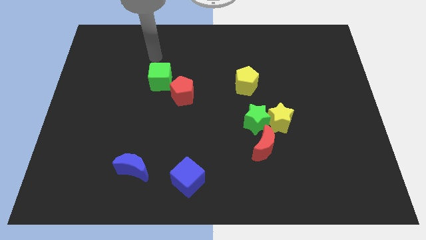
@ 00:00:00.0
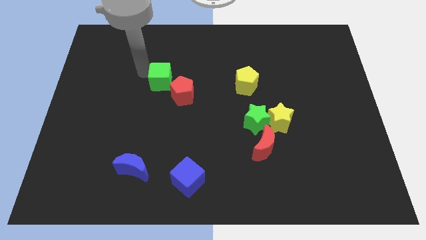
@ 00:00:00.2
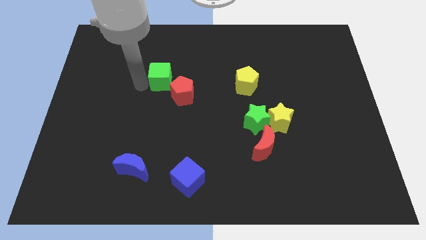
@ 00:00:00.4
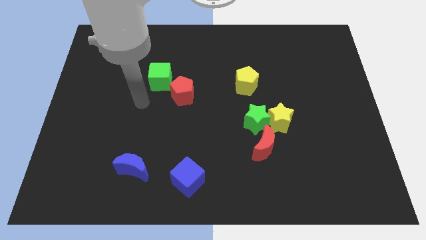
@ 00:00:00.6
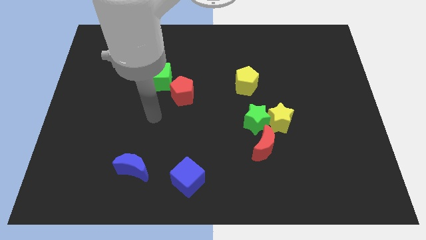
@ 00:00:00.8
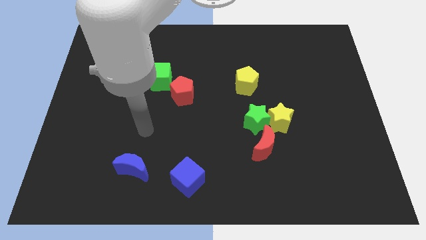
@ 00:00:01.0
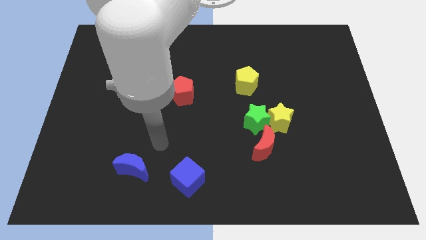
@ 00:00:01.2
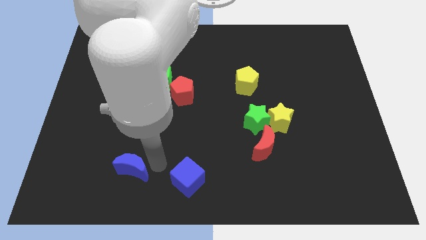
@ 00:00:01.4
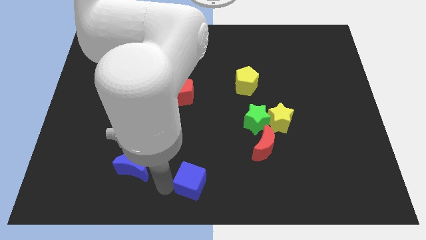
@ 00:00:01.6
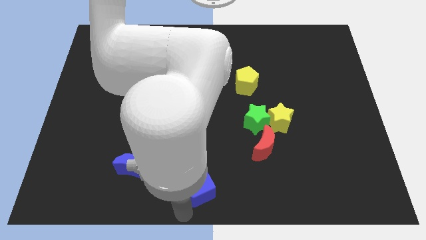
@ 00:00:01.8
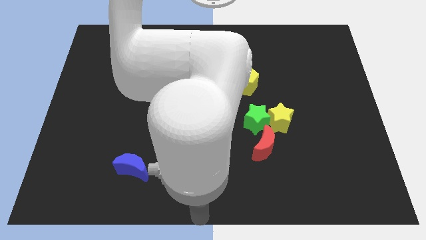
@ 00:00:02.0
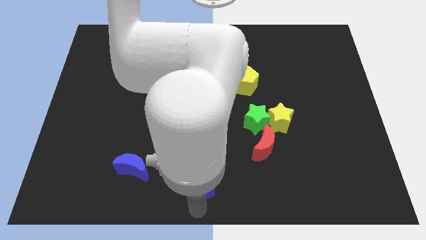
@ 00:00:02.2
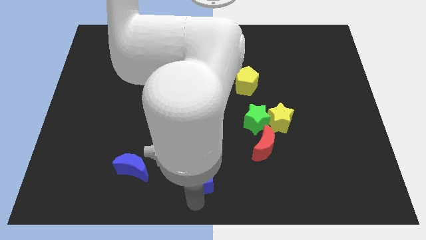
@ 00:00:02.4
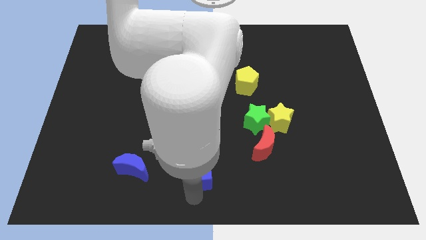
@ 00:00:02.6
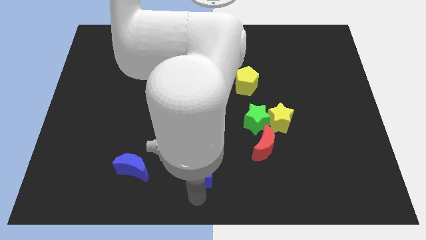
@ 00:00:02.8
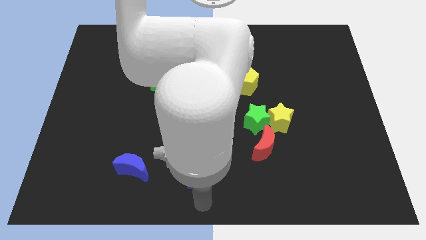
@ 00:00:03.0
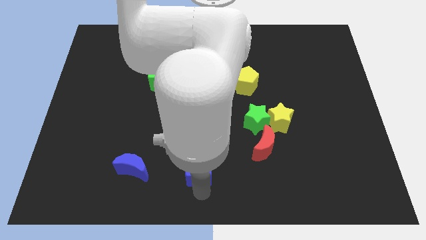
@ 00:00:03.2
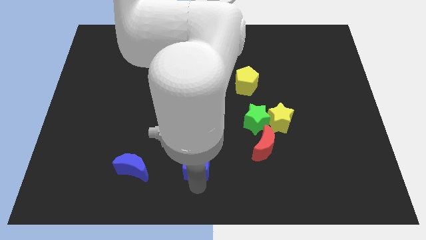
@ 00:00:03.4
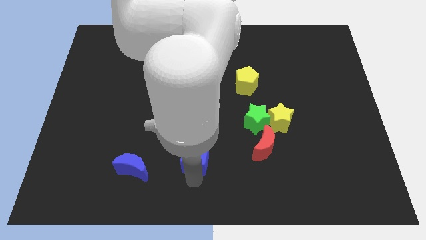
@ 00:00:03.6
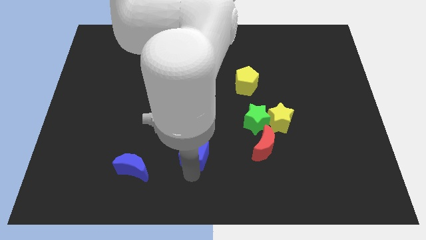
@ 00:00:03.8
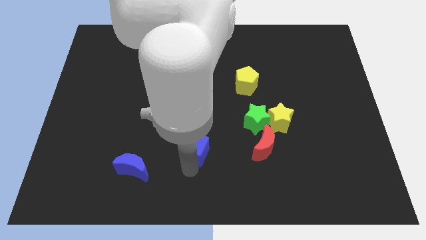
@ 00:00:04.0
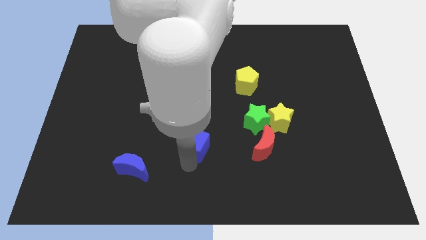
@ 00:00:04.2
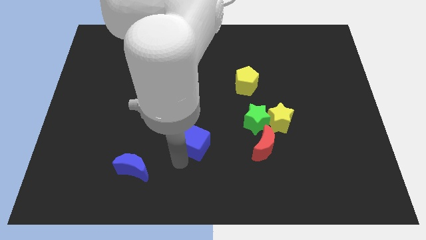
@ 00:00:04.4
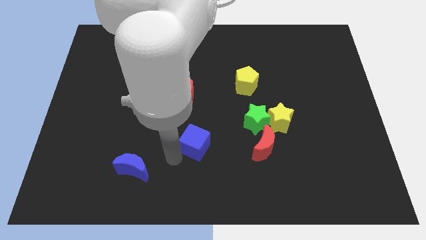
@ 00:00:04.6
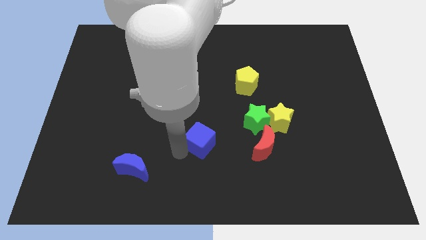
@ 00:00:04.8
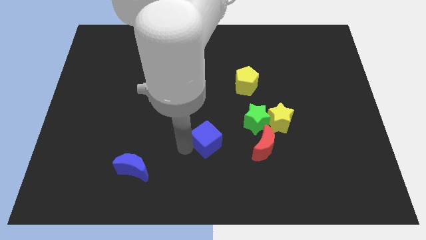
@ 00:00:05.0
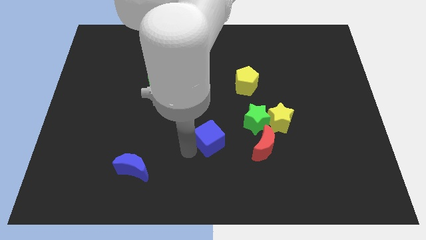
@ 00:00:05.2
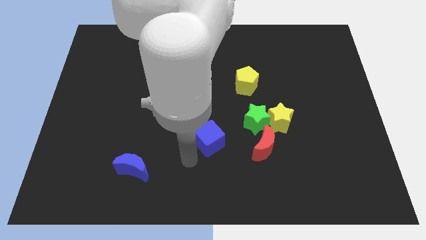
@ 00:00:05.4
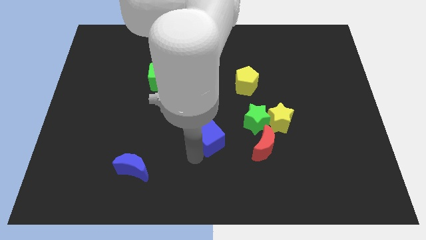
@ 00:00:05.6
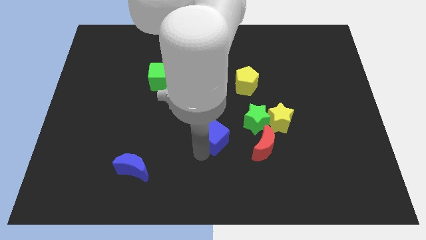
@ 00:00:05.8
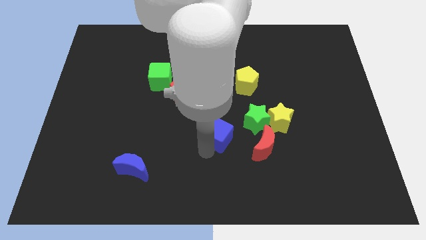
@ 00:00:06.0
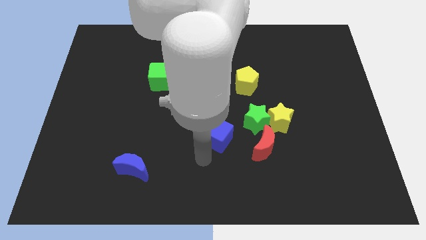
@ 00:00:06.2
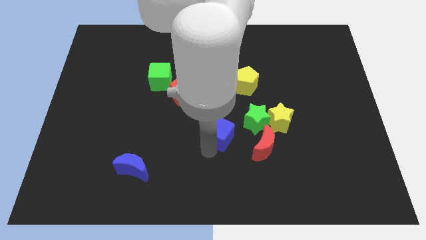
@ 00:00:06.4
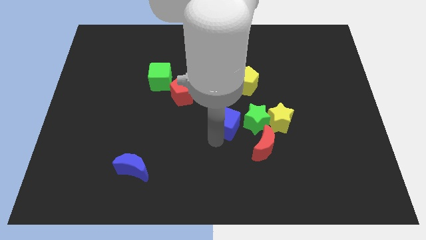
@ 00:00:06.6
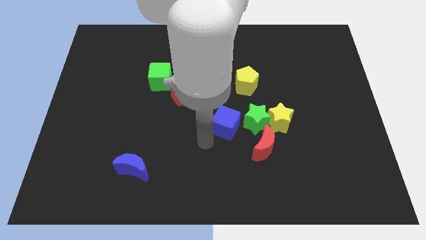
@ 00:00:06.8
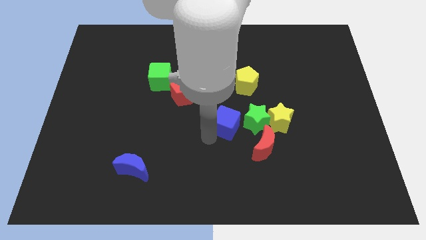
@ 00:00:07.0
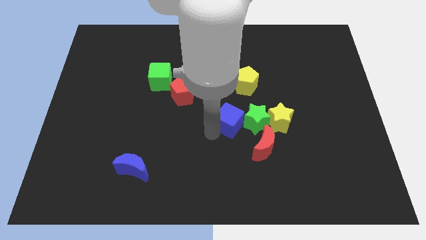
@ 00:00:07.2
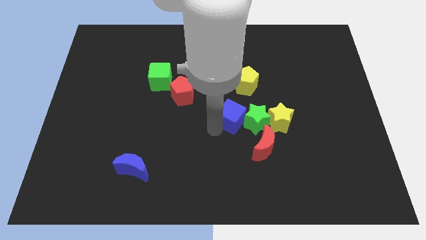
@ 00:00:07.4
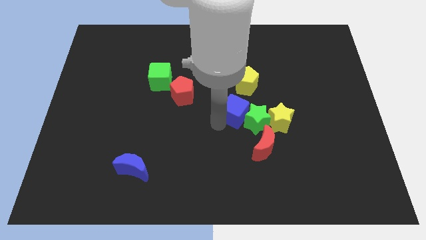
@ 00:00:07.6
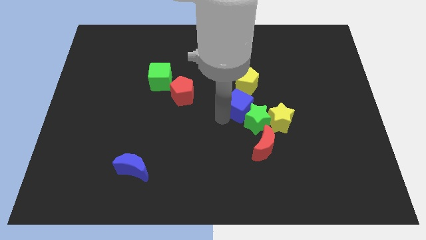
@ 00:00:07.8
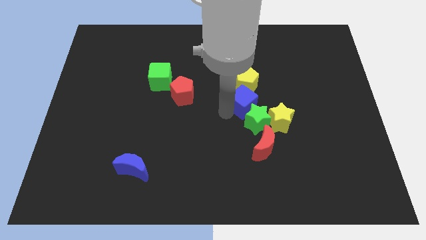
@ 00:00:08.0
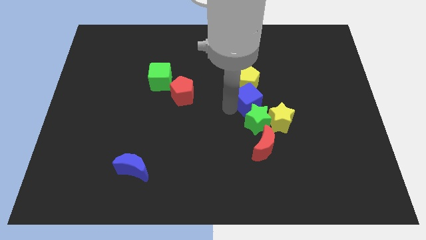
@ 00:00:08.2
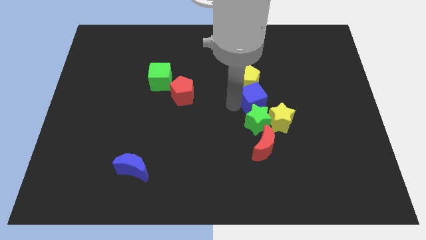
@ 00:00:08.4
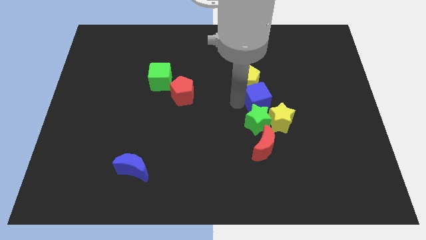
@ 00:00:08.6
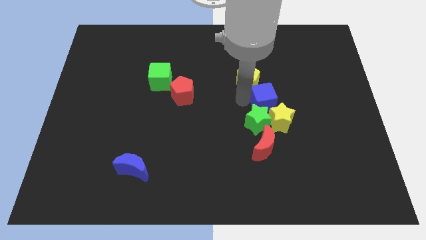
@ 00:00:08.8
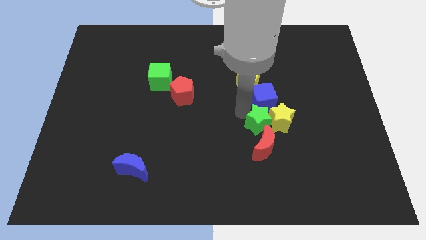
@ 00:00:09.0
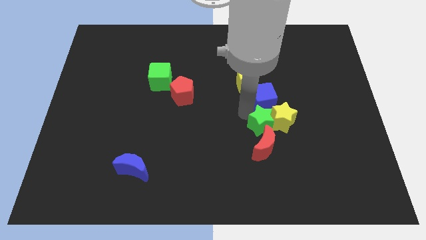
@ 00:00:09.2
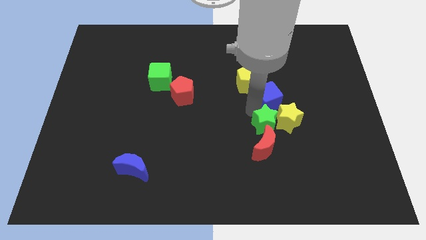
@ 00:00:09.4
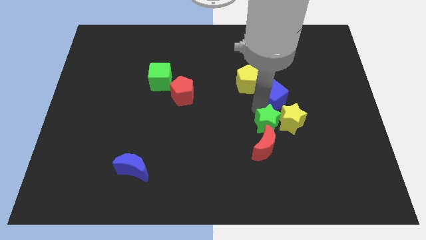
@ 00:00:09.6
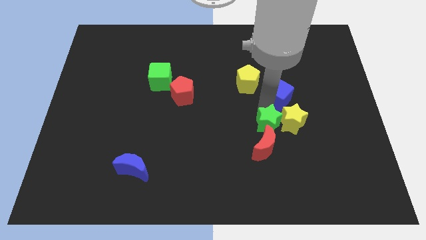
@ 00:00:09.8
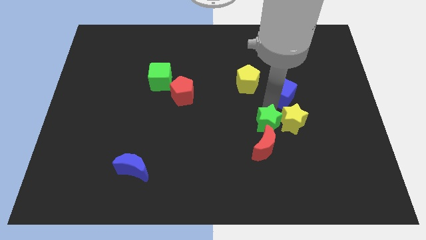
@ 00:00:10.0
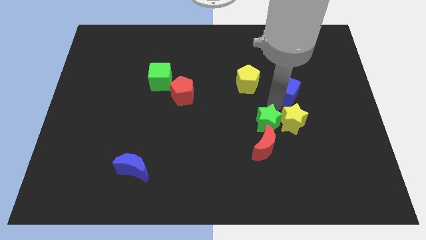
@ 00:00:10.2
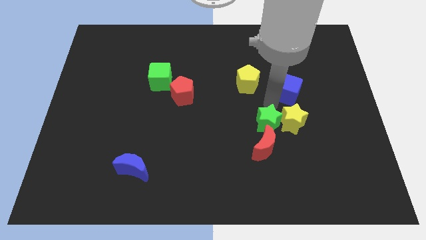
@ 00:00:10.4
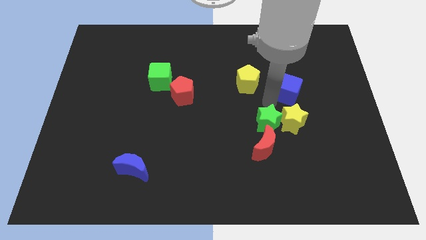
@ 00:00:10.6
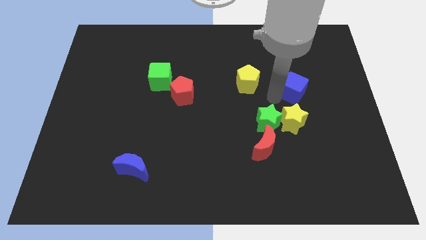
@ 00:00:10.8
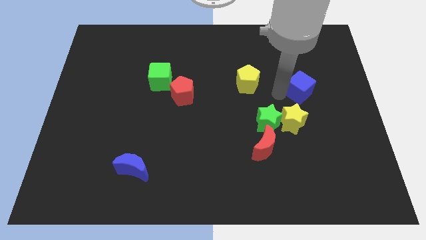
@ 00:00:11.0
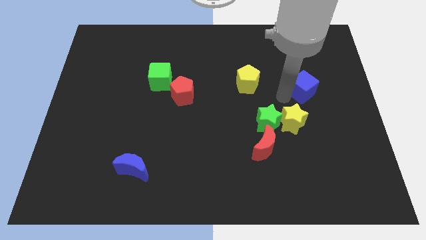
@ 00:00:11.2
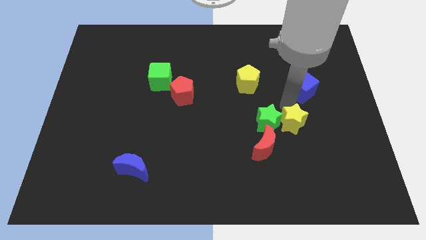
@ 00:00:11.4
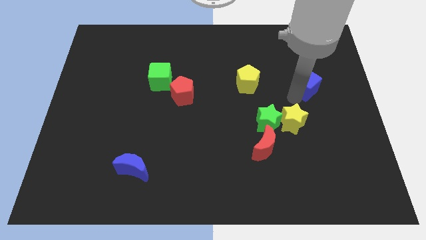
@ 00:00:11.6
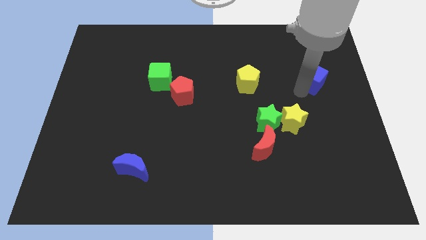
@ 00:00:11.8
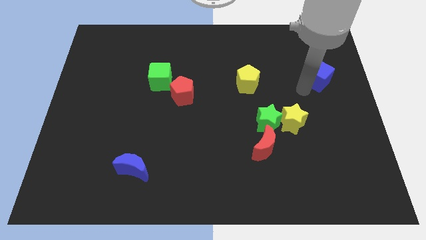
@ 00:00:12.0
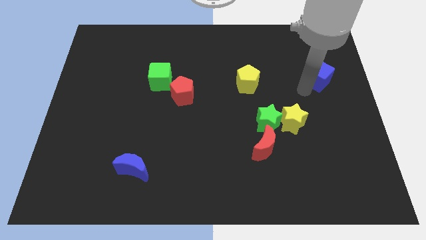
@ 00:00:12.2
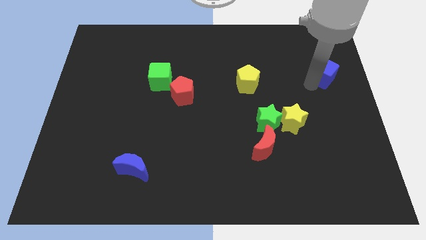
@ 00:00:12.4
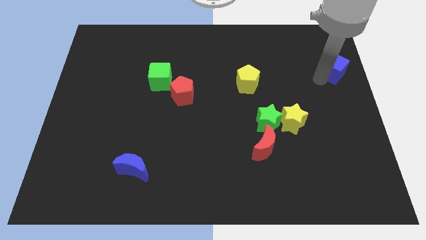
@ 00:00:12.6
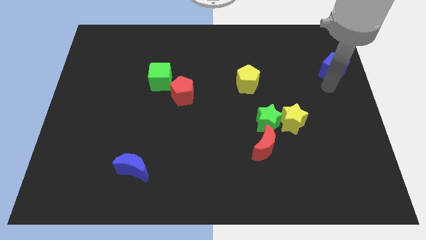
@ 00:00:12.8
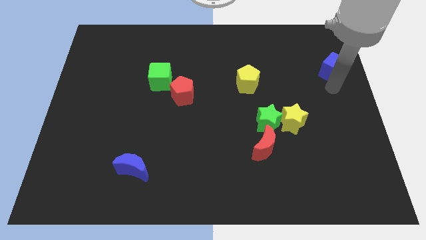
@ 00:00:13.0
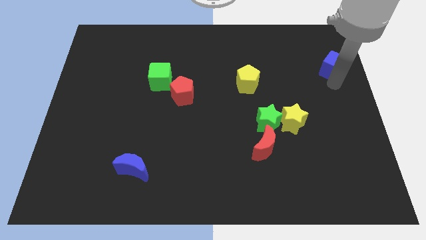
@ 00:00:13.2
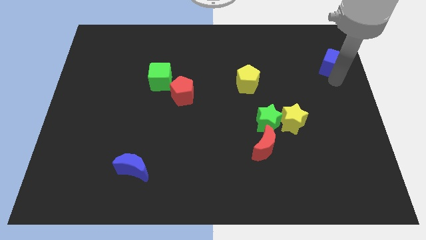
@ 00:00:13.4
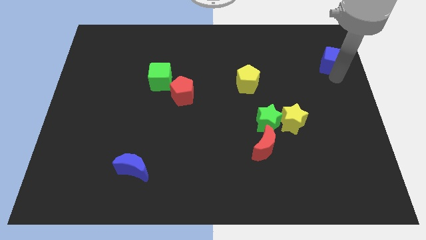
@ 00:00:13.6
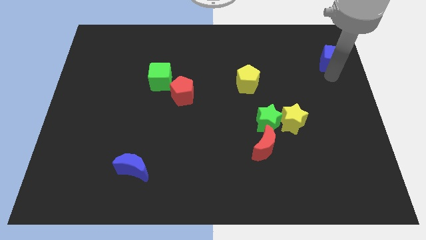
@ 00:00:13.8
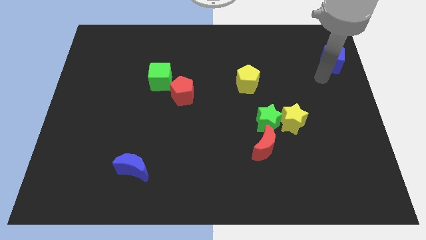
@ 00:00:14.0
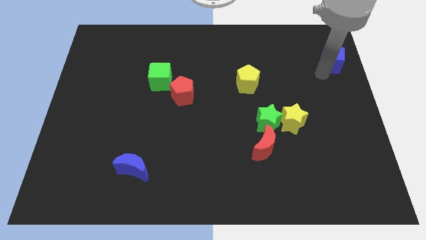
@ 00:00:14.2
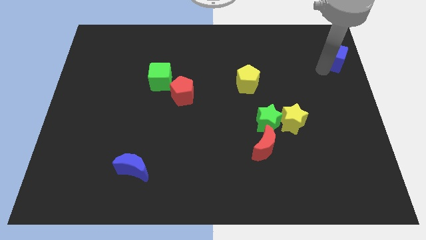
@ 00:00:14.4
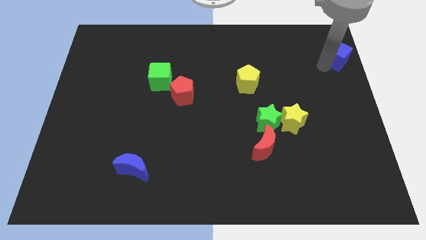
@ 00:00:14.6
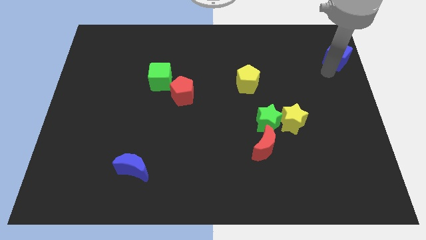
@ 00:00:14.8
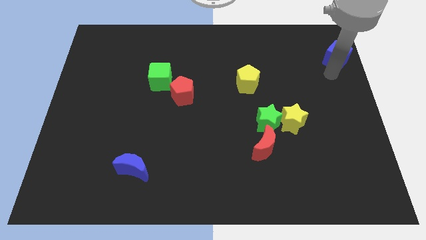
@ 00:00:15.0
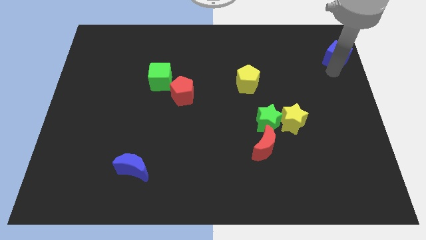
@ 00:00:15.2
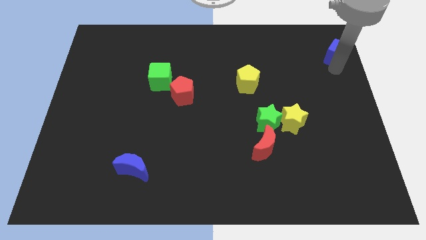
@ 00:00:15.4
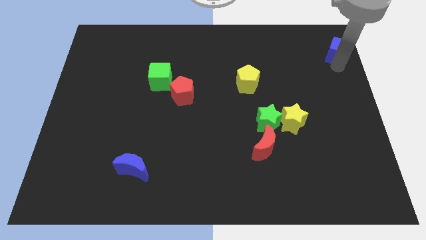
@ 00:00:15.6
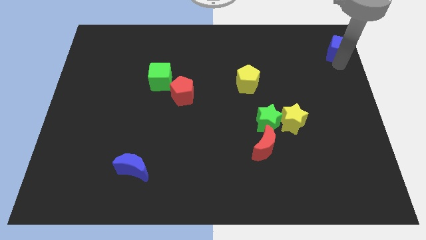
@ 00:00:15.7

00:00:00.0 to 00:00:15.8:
slide the blue cube to the top right corner
